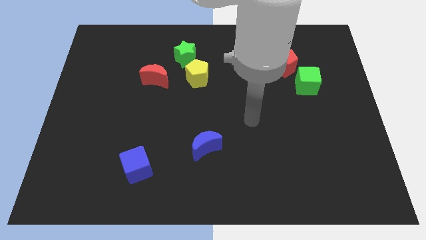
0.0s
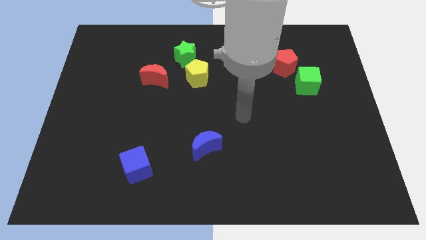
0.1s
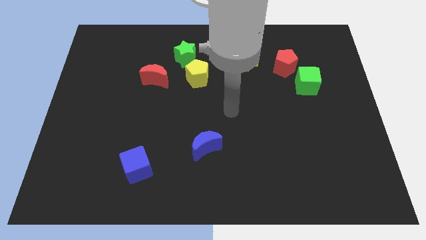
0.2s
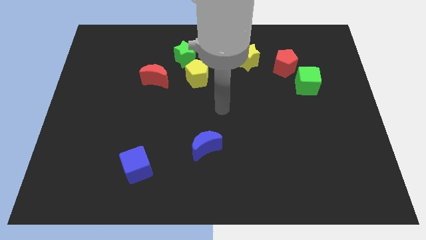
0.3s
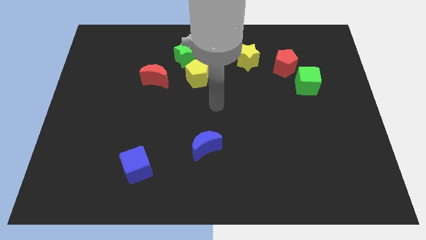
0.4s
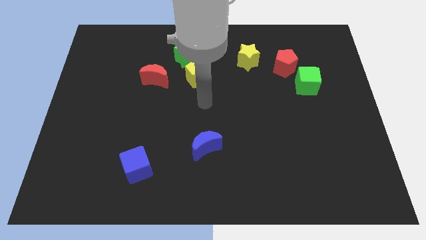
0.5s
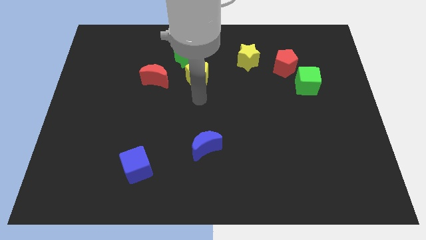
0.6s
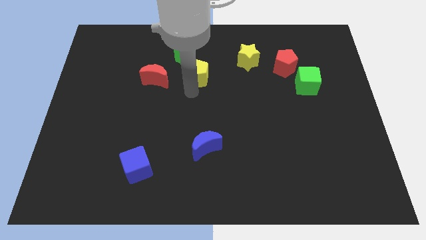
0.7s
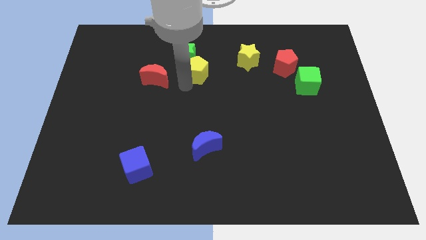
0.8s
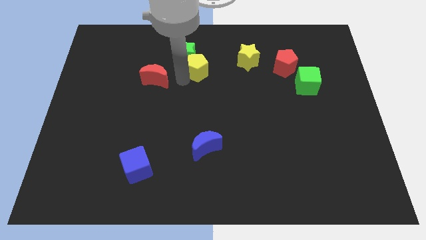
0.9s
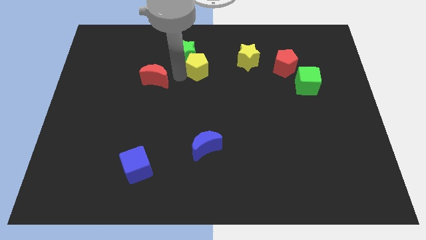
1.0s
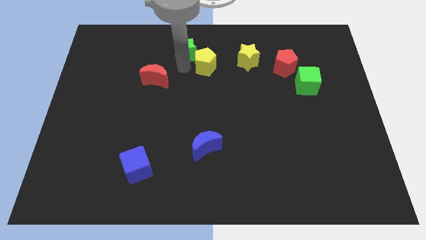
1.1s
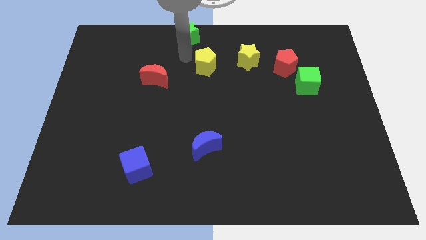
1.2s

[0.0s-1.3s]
pull the yellow pentagon apart from the green star

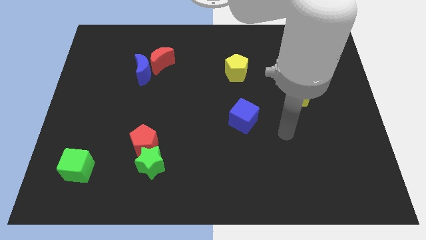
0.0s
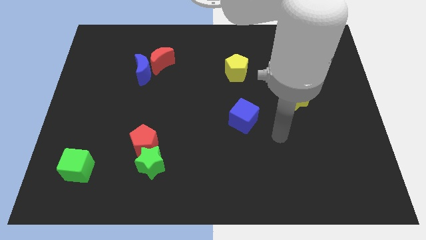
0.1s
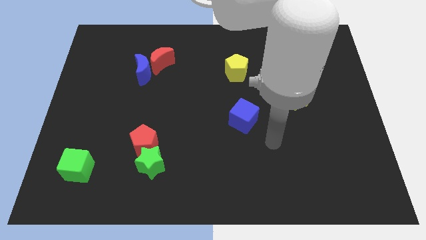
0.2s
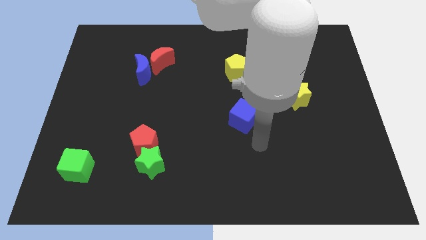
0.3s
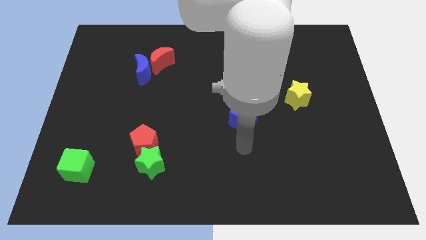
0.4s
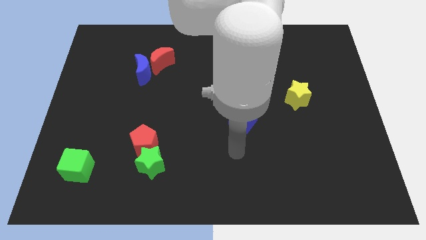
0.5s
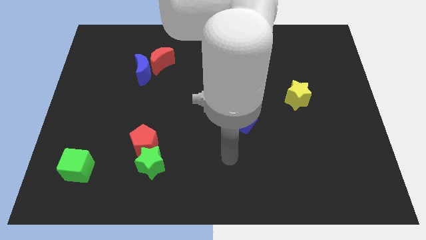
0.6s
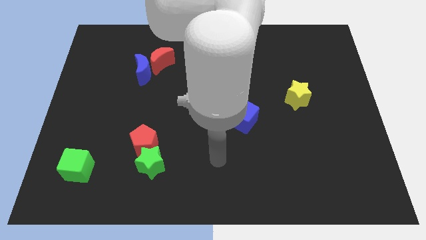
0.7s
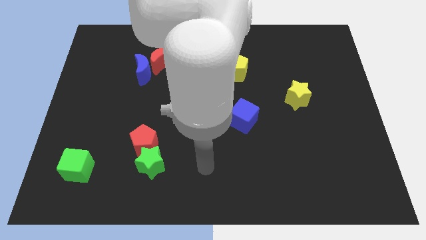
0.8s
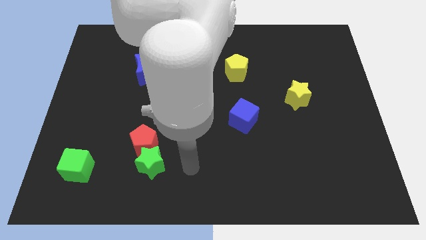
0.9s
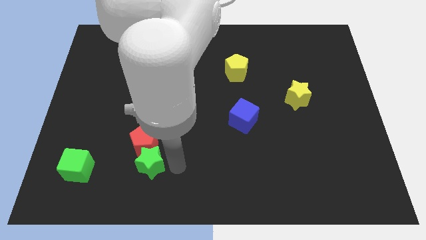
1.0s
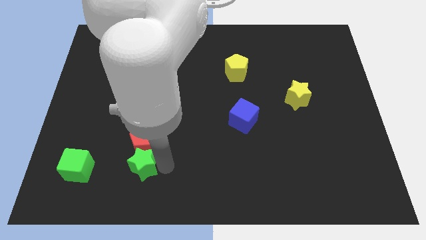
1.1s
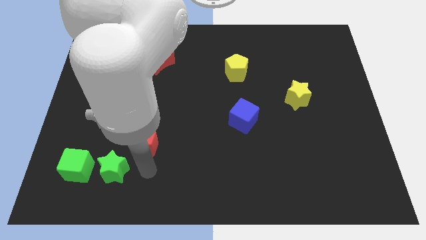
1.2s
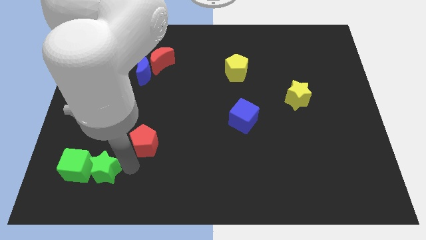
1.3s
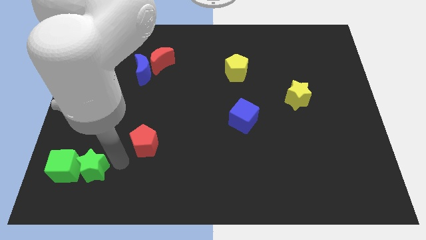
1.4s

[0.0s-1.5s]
separate the red pentagon from the green star

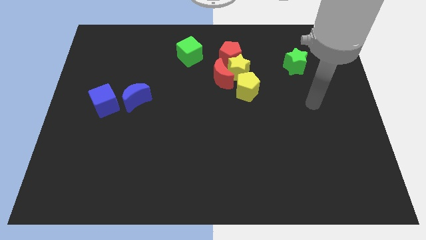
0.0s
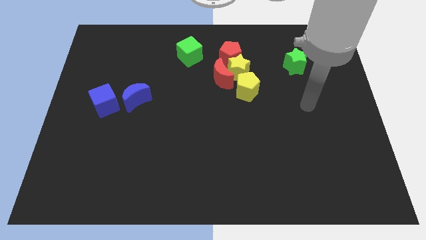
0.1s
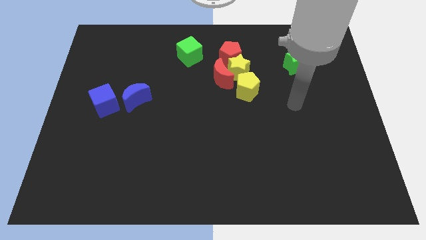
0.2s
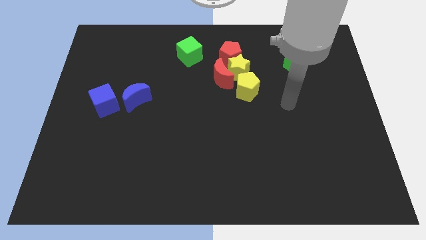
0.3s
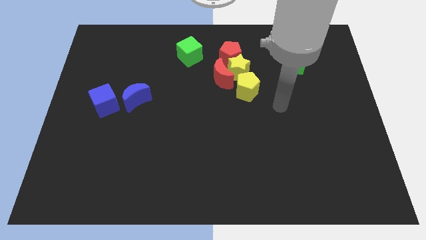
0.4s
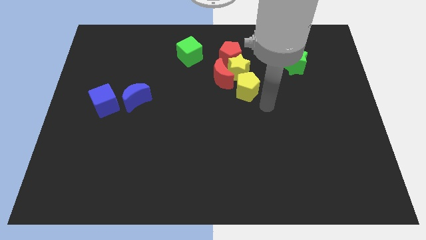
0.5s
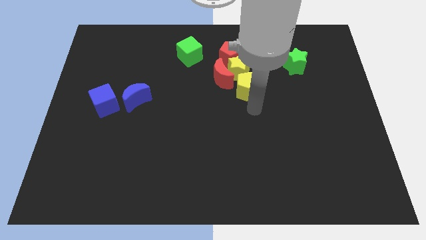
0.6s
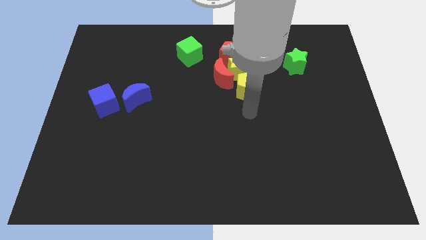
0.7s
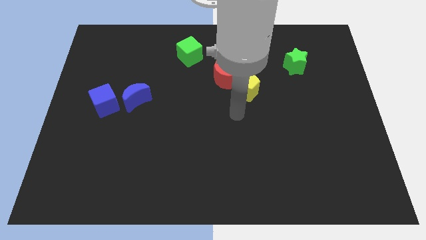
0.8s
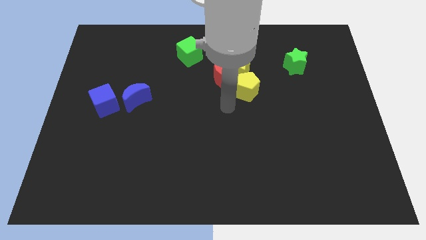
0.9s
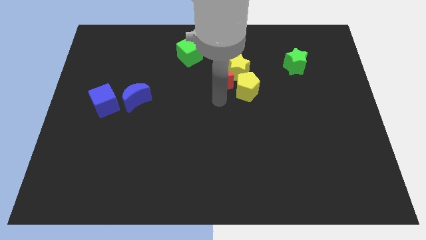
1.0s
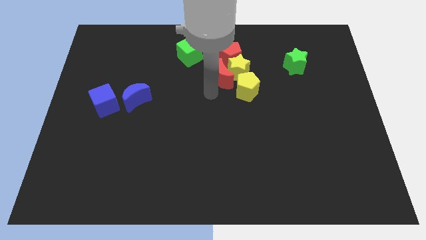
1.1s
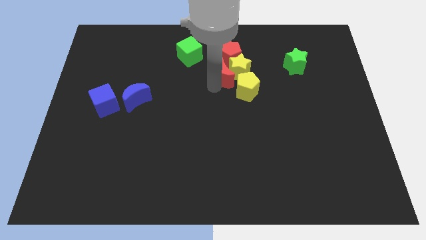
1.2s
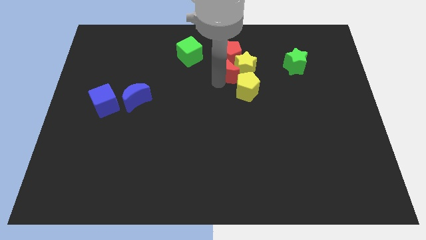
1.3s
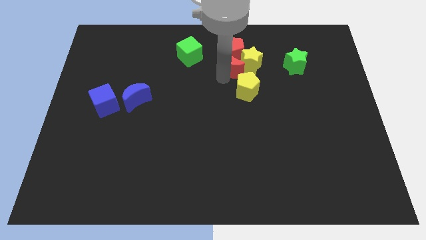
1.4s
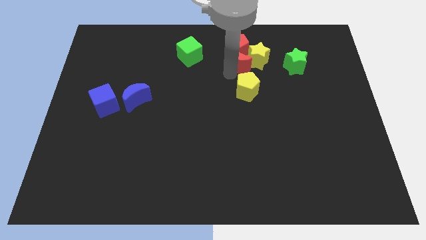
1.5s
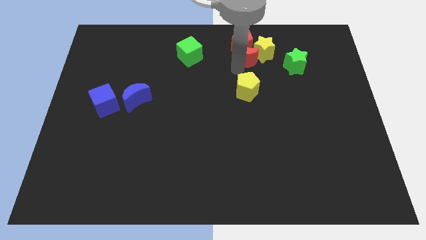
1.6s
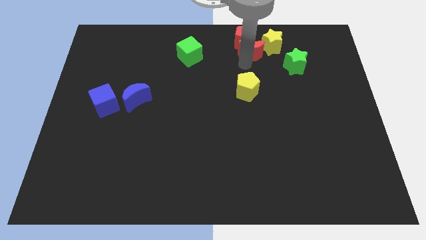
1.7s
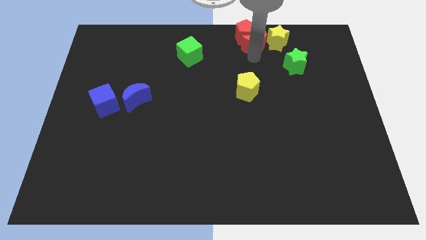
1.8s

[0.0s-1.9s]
pull the yellow star apart from the clump

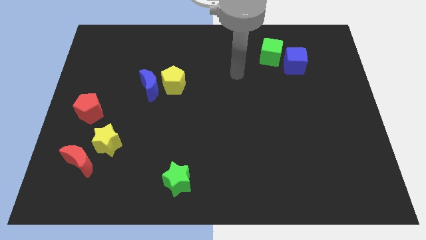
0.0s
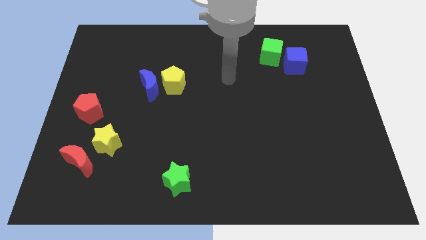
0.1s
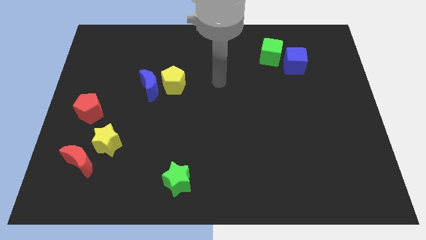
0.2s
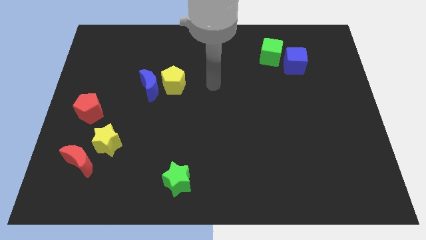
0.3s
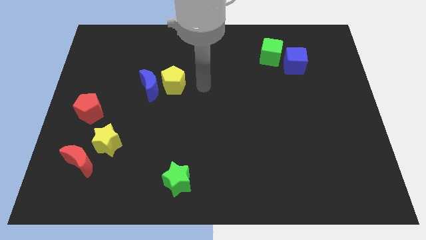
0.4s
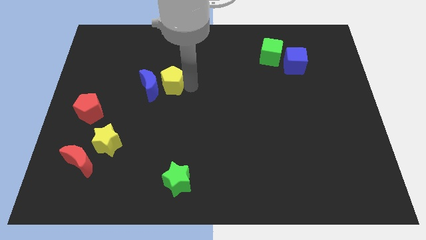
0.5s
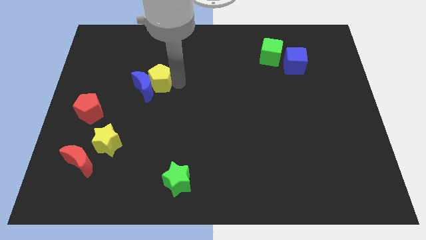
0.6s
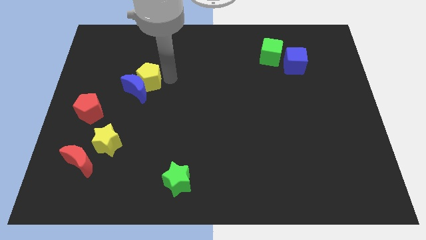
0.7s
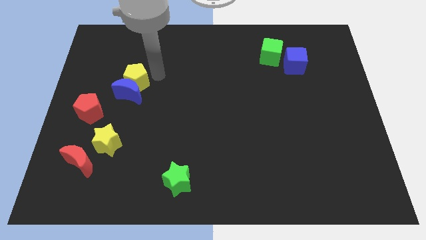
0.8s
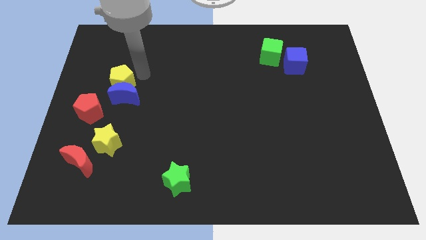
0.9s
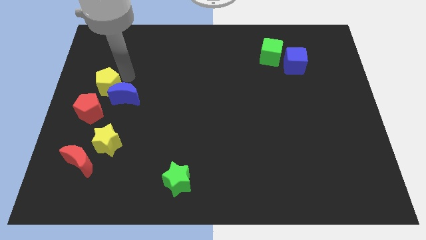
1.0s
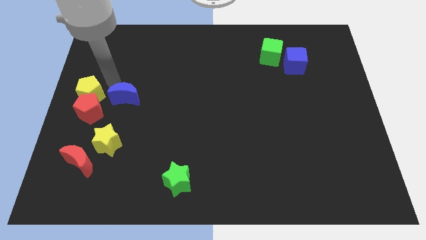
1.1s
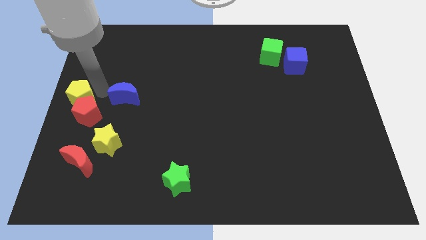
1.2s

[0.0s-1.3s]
move the blue moon away from the yellow pentagon

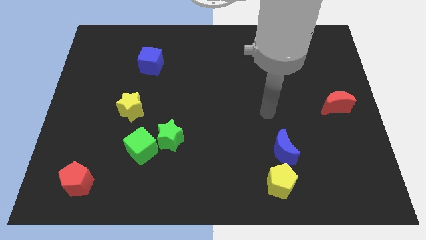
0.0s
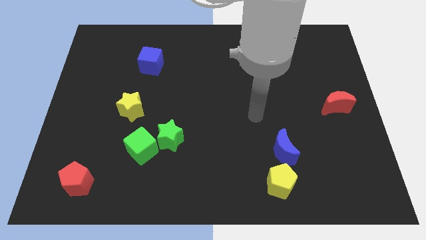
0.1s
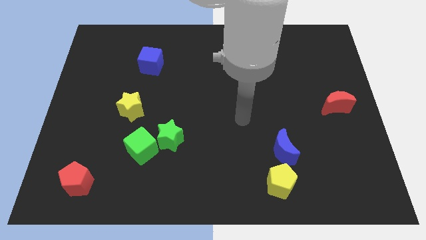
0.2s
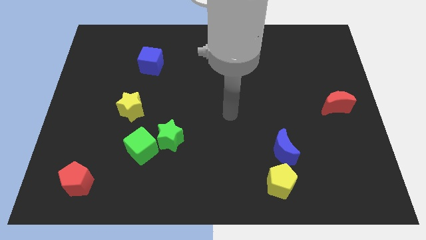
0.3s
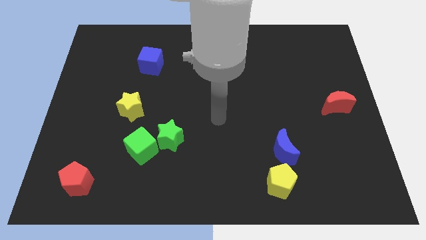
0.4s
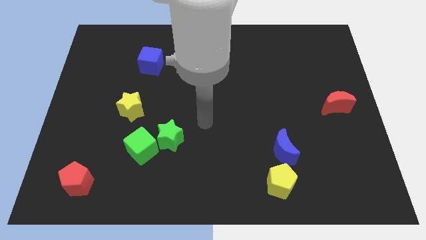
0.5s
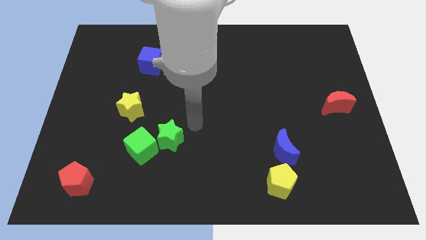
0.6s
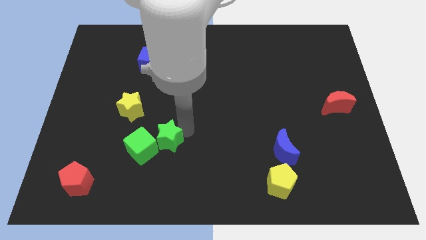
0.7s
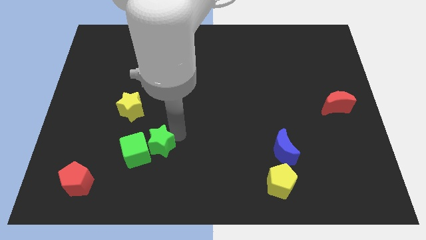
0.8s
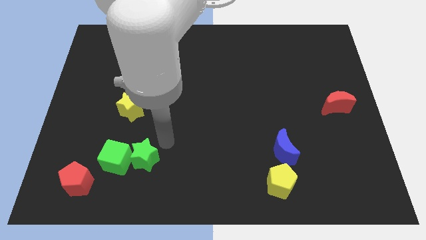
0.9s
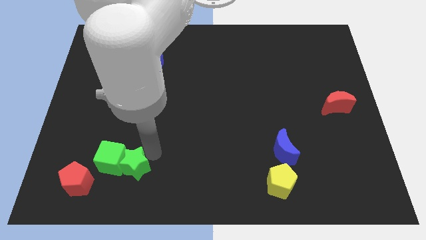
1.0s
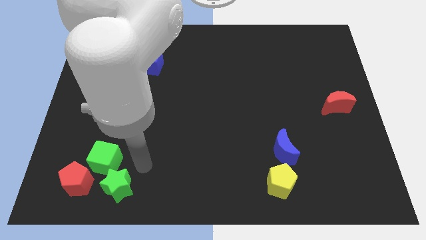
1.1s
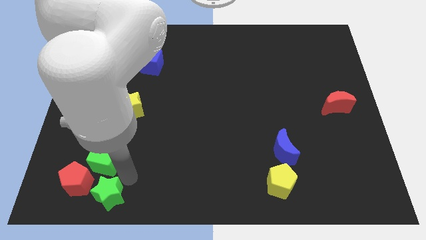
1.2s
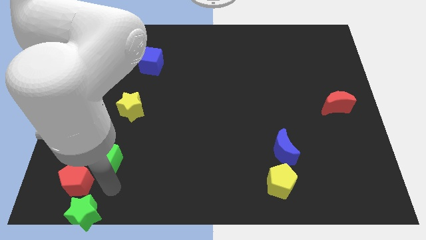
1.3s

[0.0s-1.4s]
separate the green cube from the green star

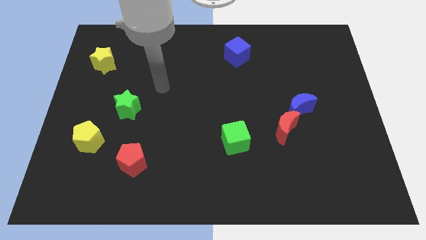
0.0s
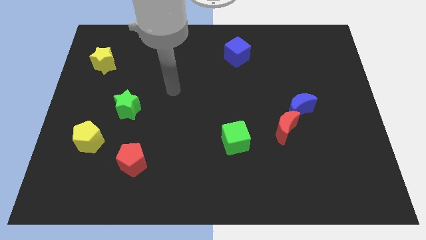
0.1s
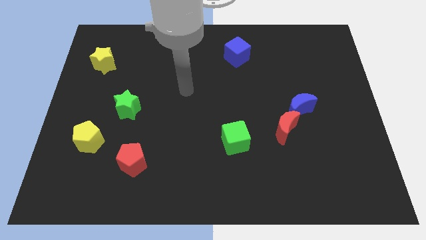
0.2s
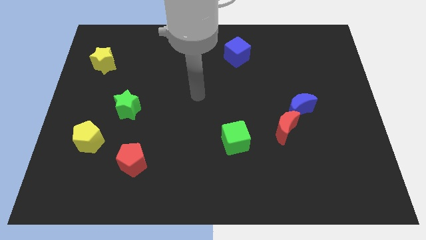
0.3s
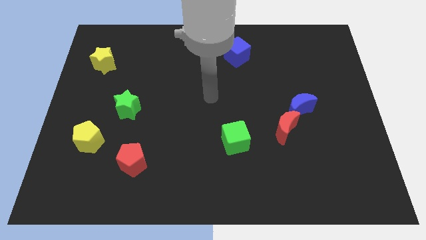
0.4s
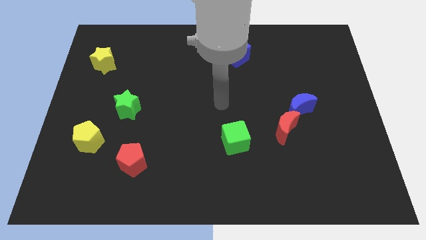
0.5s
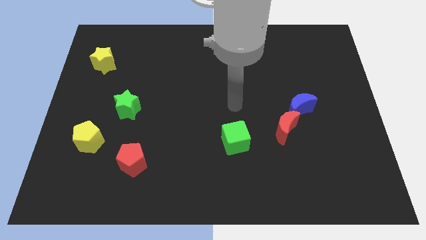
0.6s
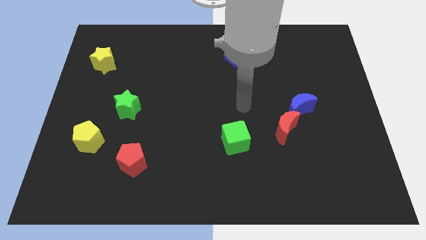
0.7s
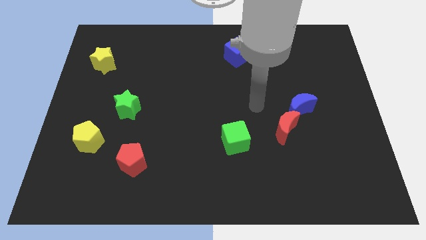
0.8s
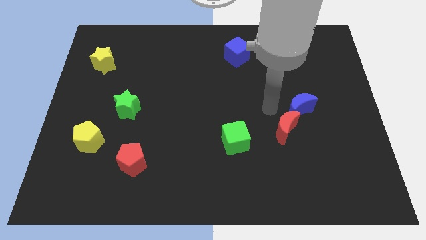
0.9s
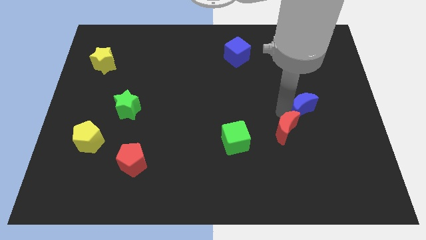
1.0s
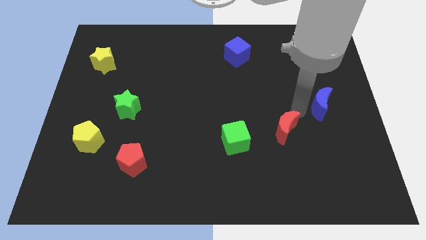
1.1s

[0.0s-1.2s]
pull the red moon apart from the blue moon

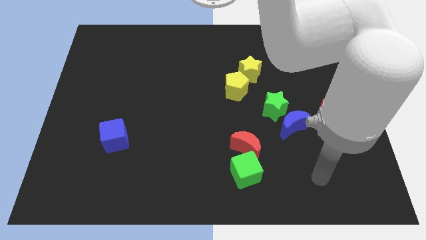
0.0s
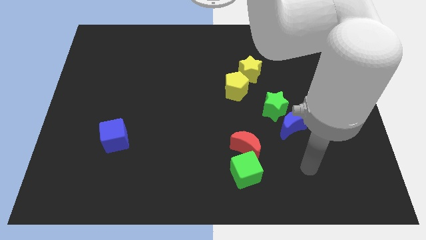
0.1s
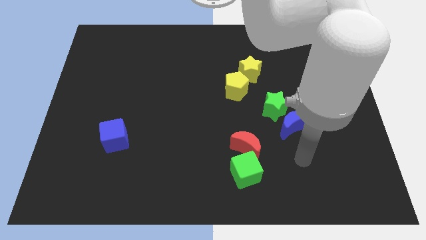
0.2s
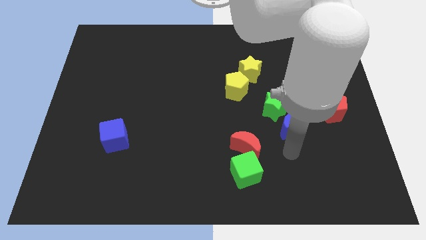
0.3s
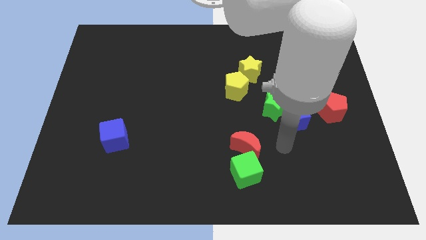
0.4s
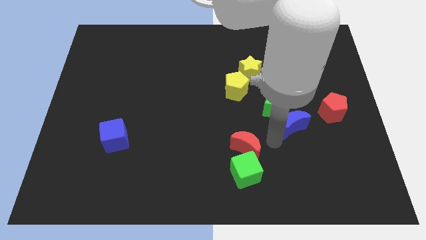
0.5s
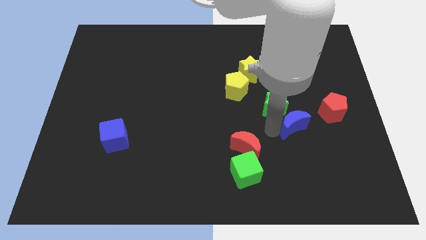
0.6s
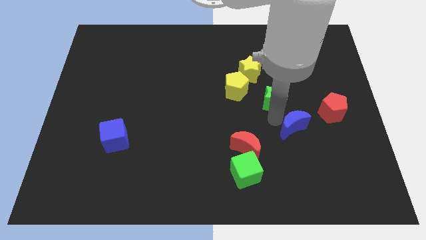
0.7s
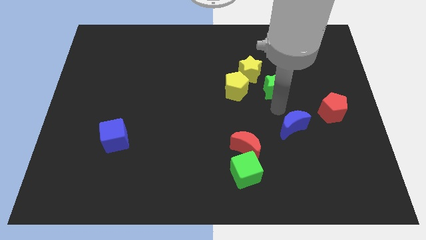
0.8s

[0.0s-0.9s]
pull the blue moon apart from the green star
